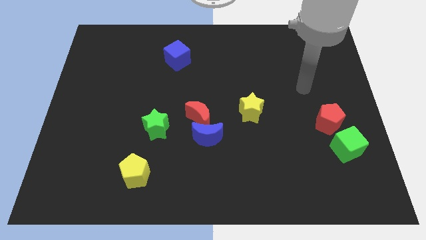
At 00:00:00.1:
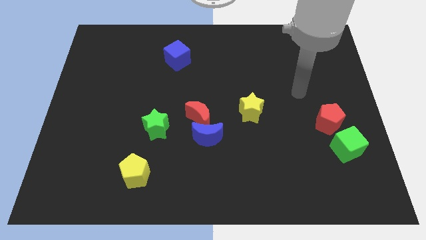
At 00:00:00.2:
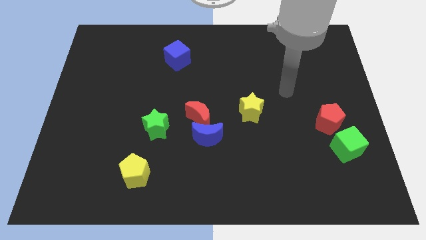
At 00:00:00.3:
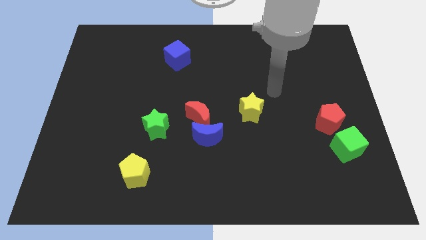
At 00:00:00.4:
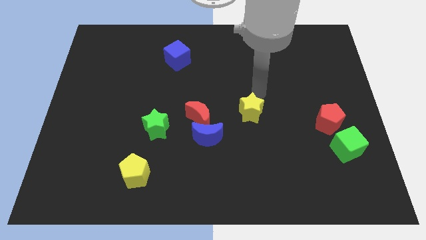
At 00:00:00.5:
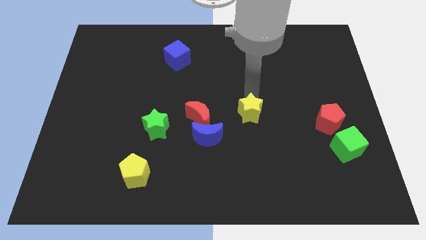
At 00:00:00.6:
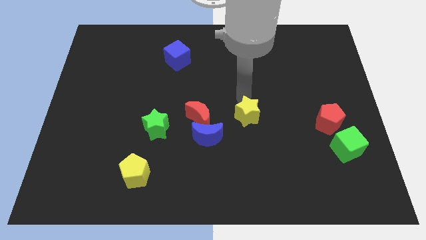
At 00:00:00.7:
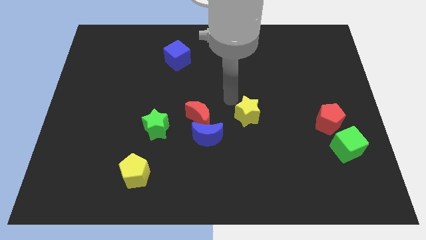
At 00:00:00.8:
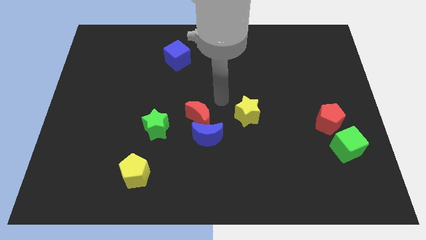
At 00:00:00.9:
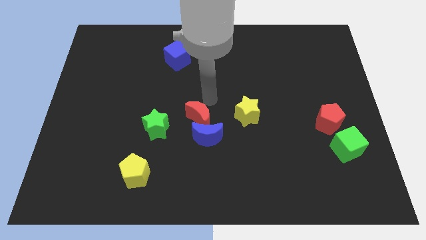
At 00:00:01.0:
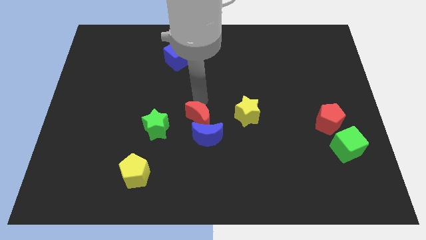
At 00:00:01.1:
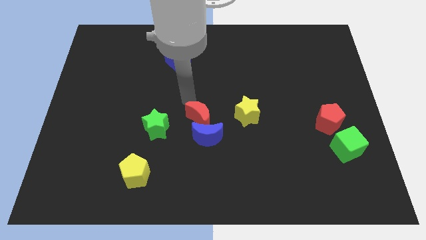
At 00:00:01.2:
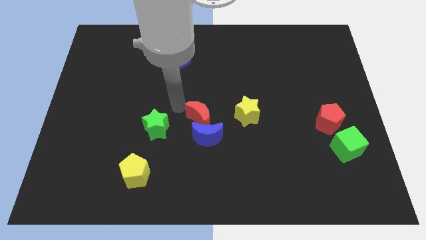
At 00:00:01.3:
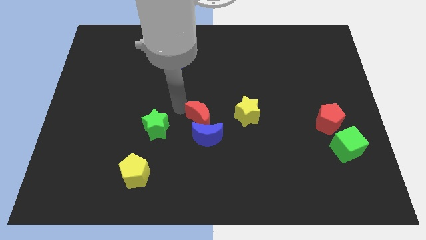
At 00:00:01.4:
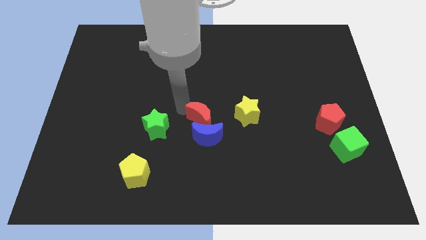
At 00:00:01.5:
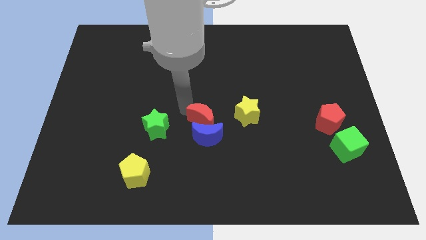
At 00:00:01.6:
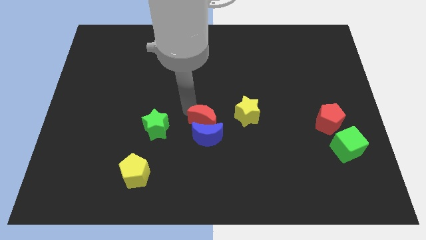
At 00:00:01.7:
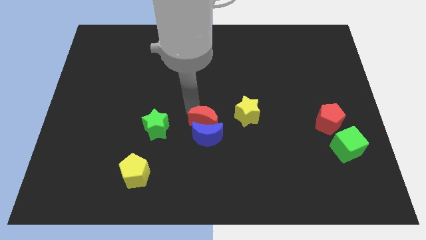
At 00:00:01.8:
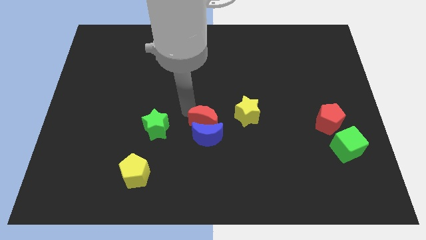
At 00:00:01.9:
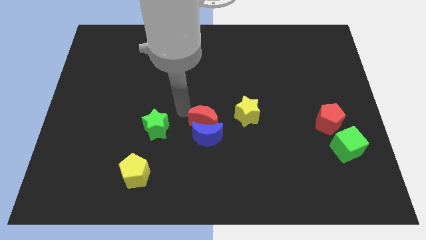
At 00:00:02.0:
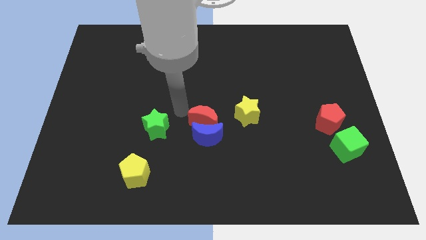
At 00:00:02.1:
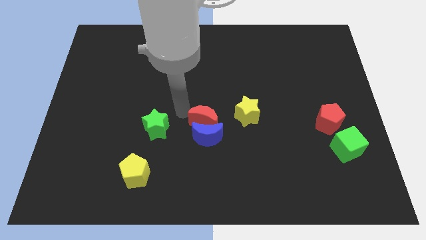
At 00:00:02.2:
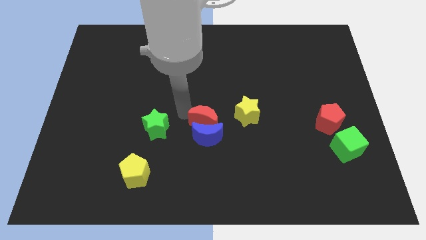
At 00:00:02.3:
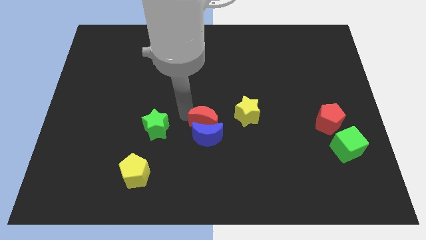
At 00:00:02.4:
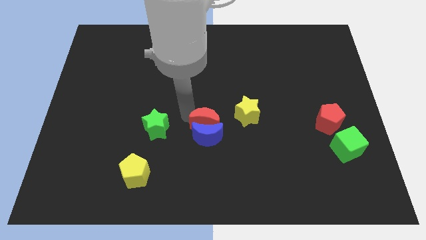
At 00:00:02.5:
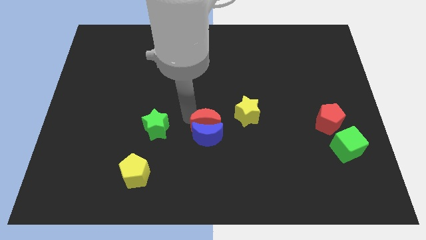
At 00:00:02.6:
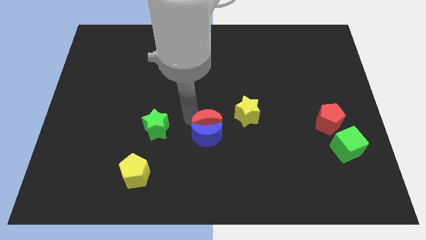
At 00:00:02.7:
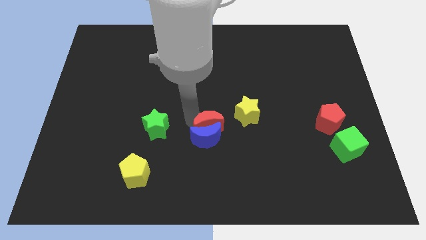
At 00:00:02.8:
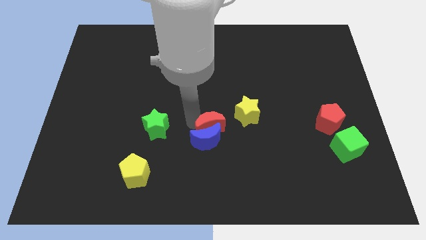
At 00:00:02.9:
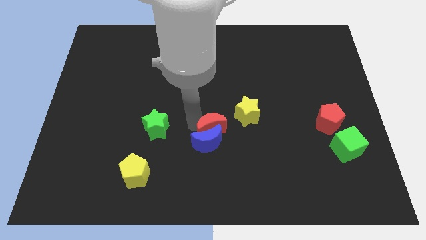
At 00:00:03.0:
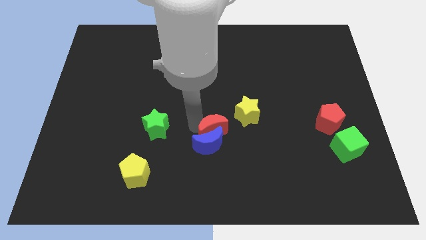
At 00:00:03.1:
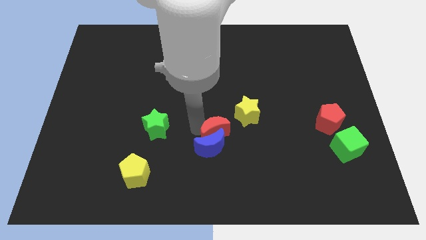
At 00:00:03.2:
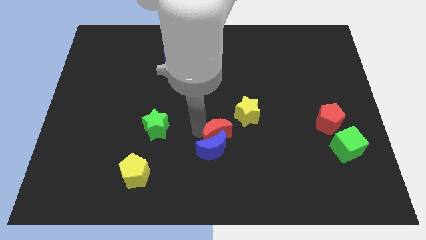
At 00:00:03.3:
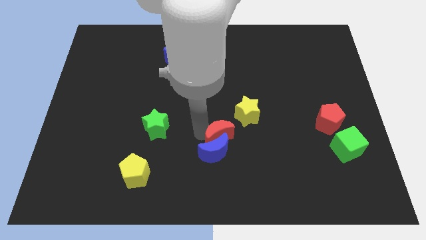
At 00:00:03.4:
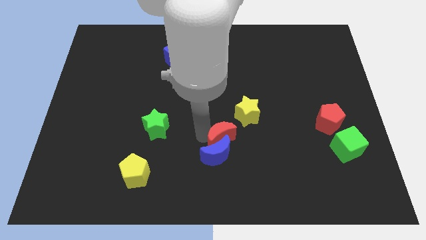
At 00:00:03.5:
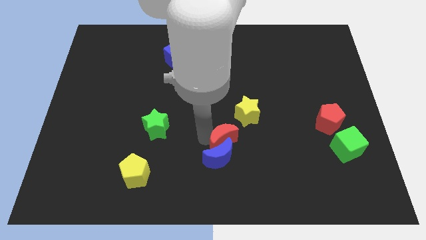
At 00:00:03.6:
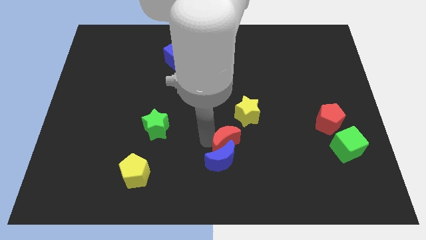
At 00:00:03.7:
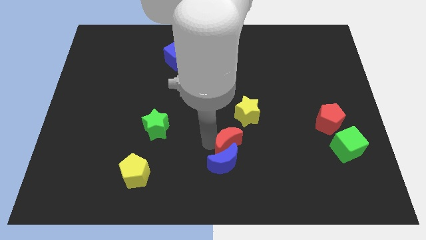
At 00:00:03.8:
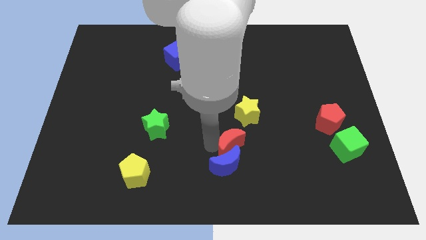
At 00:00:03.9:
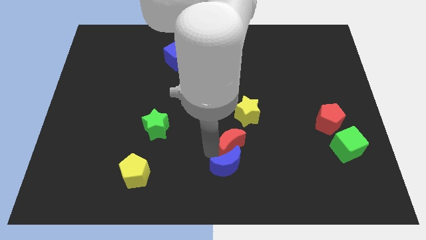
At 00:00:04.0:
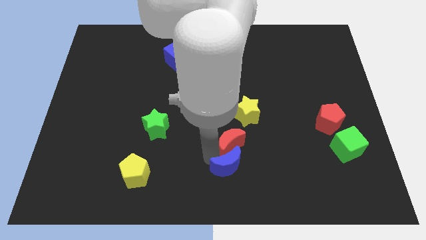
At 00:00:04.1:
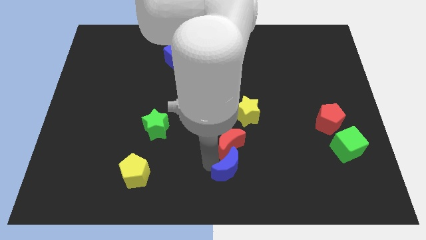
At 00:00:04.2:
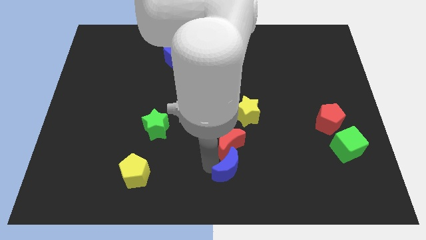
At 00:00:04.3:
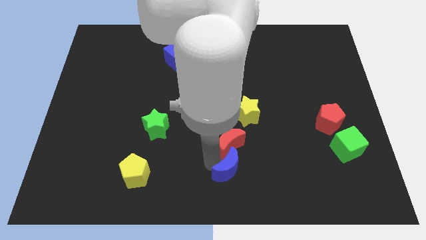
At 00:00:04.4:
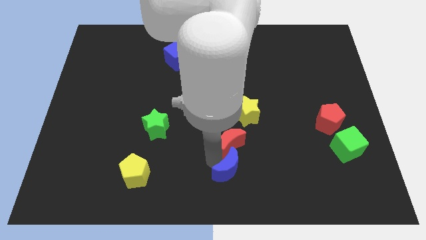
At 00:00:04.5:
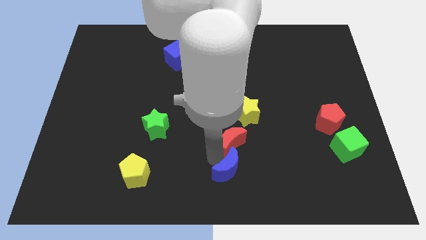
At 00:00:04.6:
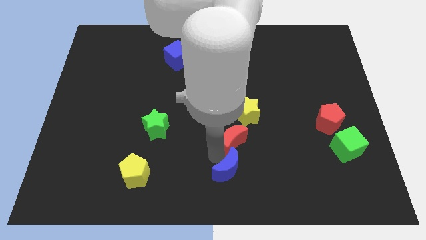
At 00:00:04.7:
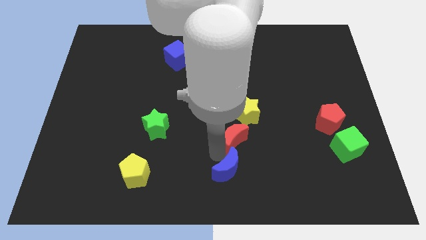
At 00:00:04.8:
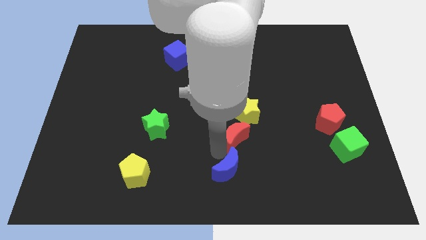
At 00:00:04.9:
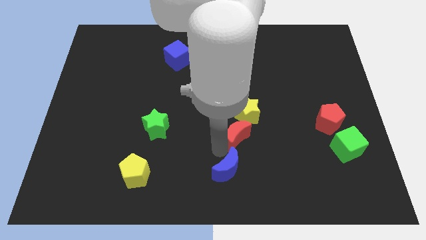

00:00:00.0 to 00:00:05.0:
slightly push the red moon right

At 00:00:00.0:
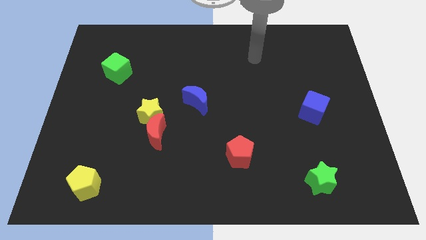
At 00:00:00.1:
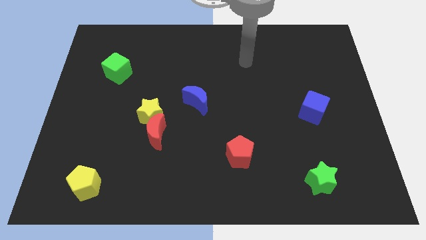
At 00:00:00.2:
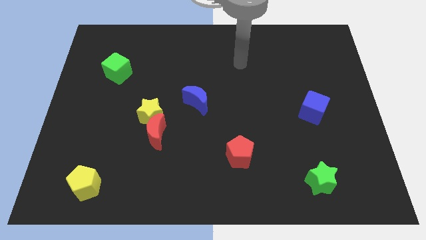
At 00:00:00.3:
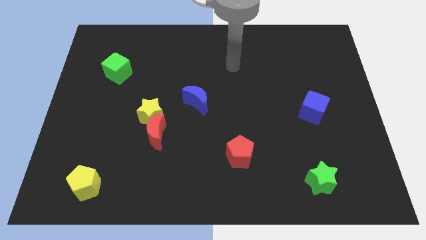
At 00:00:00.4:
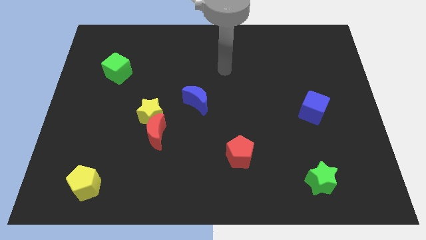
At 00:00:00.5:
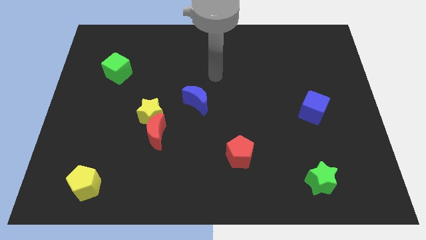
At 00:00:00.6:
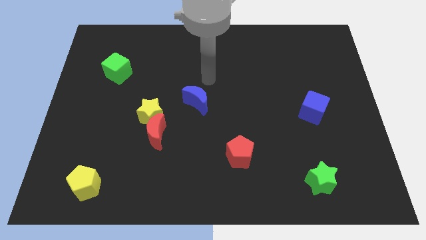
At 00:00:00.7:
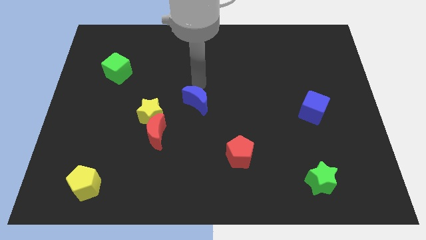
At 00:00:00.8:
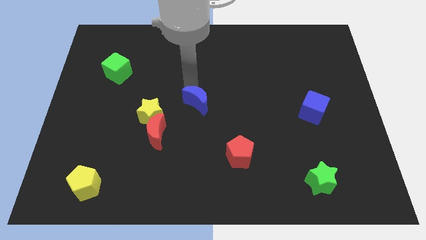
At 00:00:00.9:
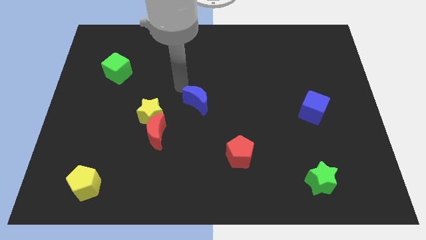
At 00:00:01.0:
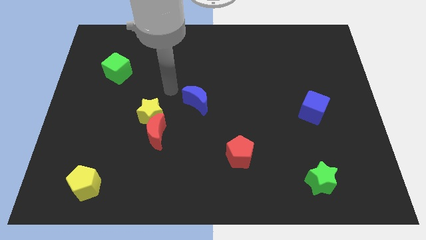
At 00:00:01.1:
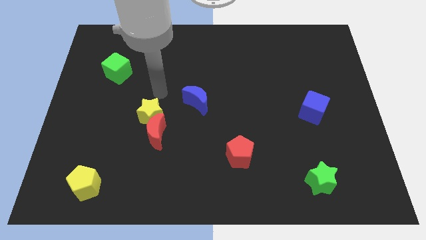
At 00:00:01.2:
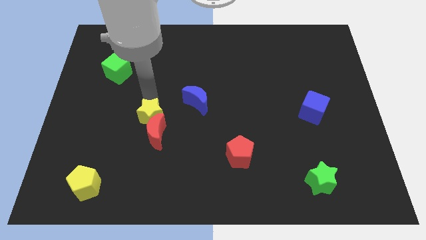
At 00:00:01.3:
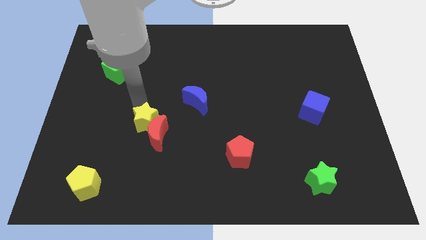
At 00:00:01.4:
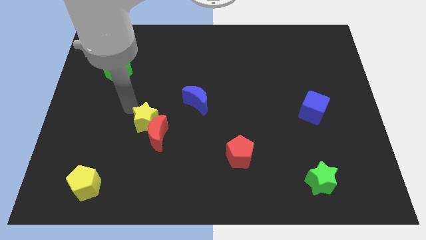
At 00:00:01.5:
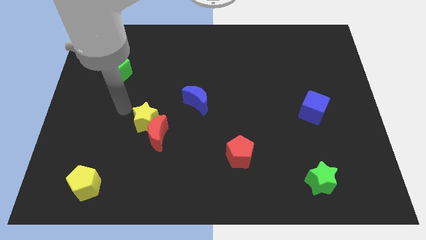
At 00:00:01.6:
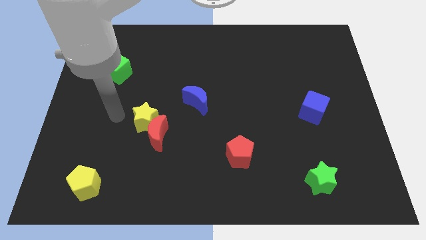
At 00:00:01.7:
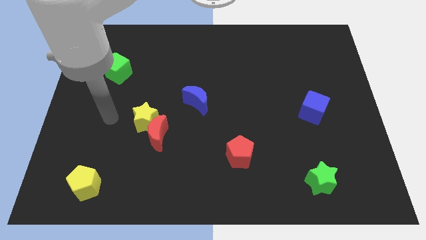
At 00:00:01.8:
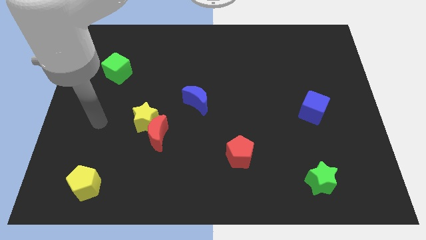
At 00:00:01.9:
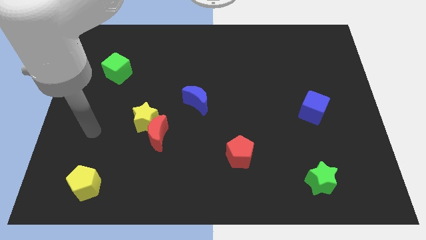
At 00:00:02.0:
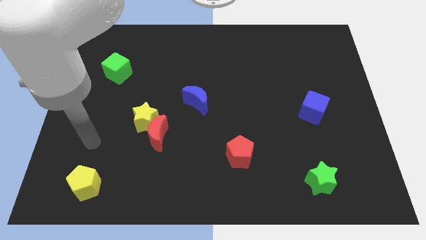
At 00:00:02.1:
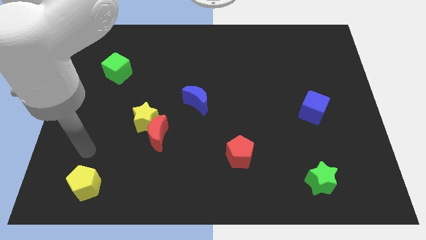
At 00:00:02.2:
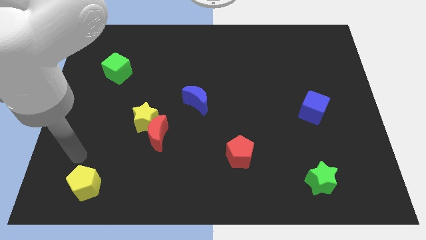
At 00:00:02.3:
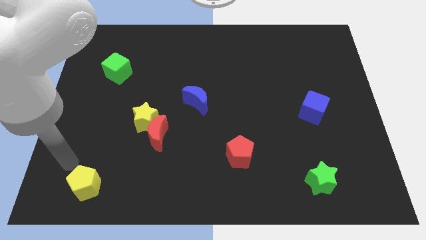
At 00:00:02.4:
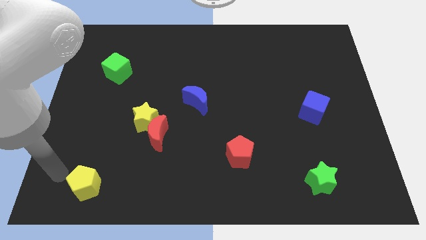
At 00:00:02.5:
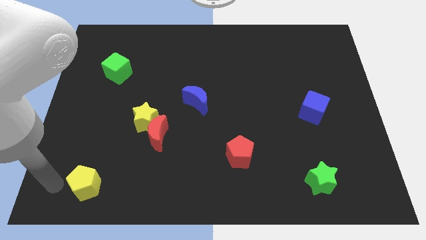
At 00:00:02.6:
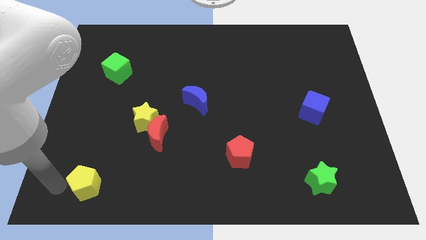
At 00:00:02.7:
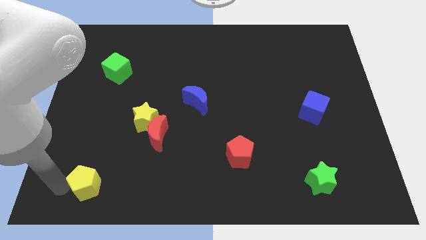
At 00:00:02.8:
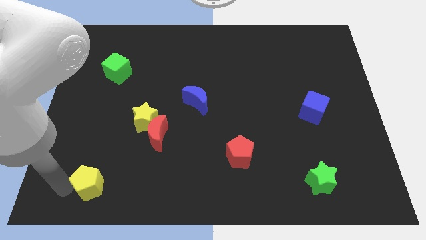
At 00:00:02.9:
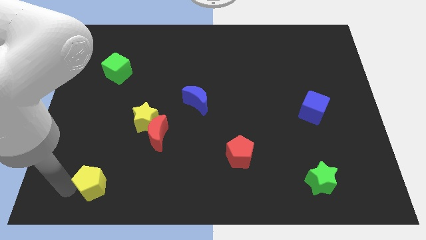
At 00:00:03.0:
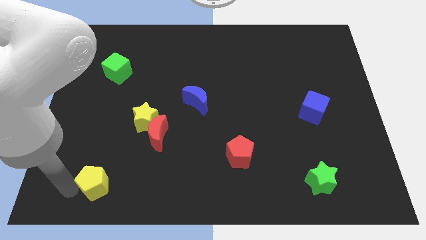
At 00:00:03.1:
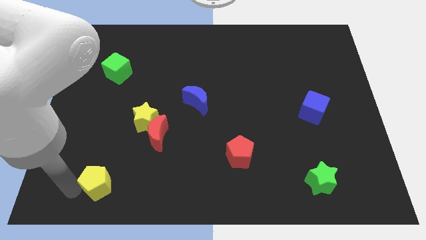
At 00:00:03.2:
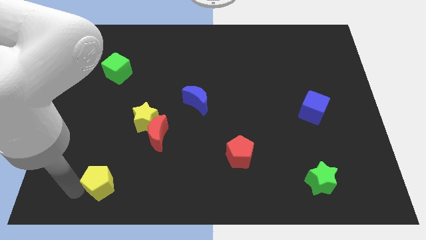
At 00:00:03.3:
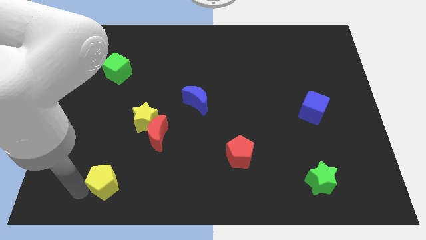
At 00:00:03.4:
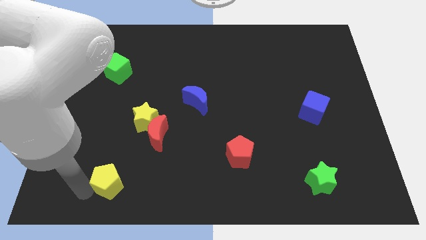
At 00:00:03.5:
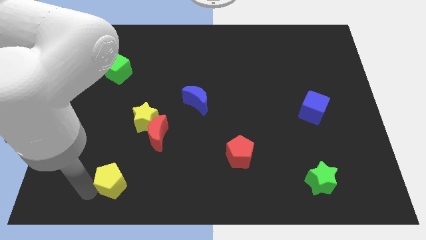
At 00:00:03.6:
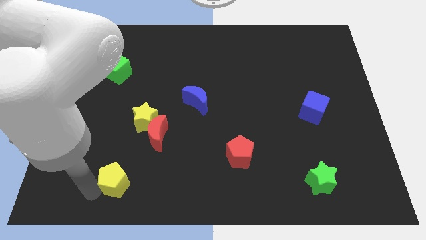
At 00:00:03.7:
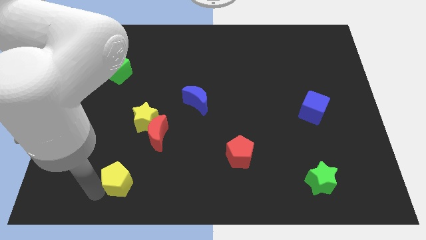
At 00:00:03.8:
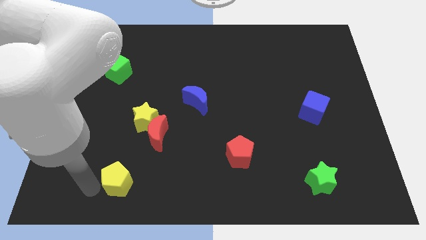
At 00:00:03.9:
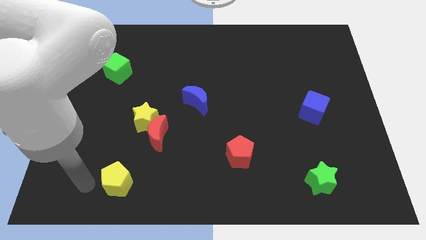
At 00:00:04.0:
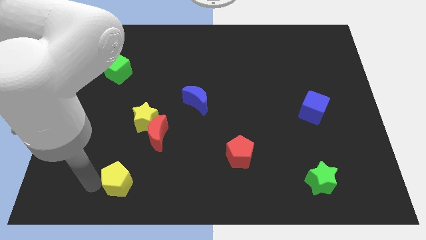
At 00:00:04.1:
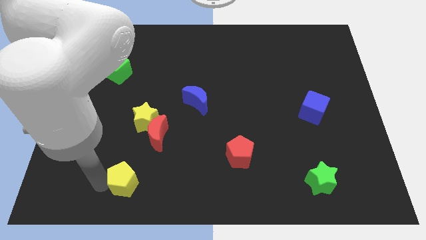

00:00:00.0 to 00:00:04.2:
move the yellow pentagon right somewhat
